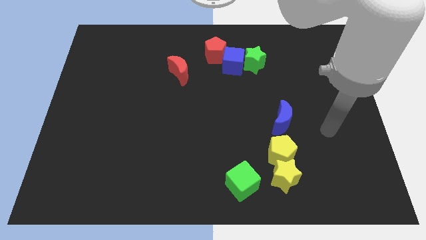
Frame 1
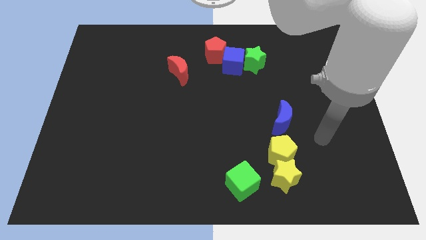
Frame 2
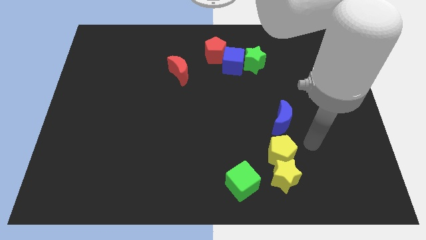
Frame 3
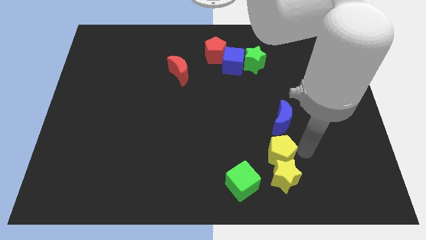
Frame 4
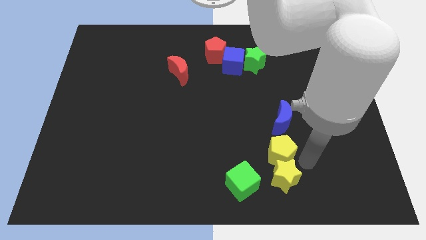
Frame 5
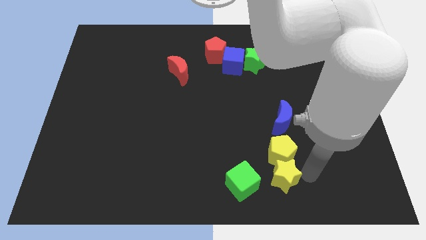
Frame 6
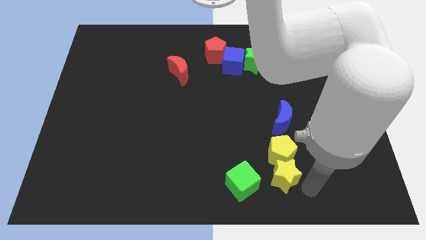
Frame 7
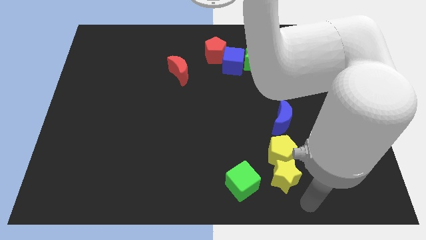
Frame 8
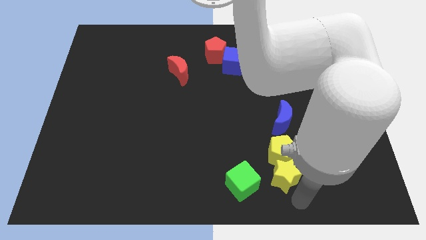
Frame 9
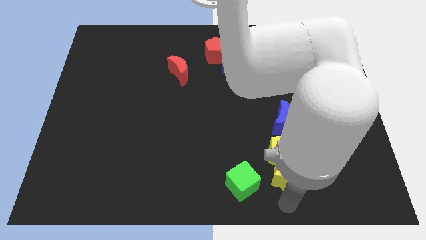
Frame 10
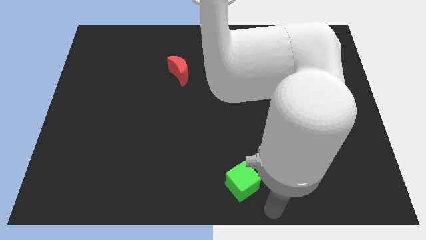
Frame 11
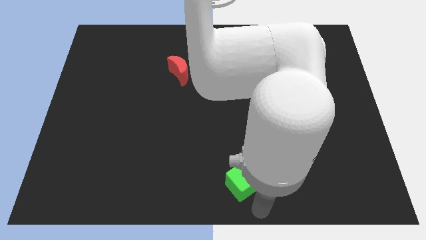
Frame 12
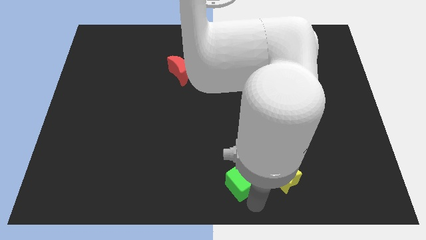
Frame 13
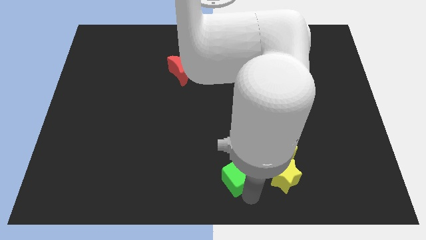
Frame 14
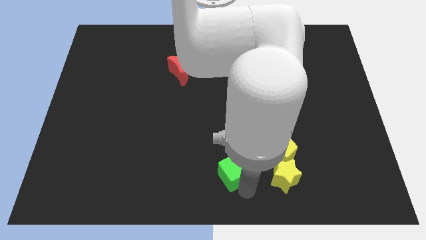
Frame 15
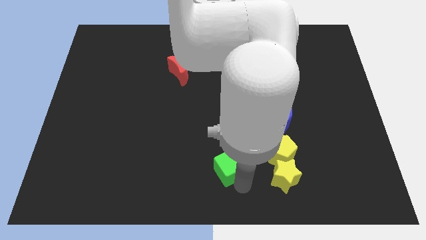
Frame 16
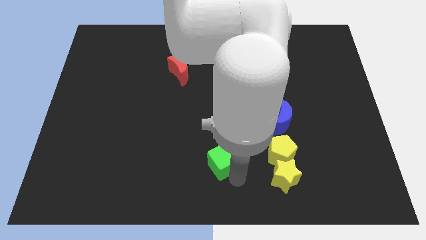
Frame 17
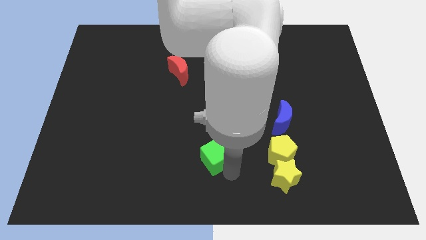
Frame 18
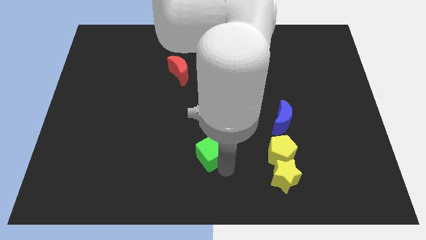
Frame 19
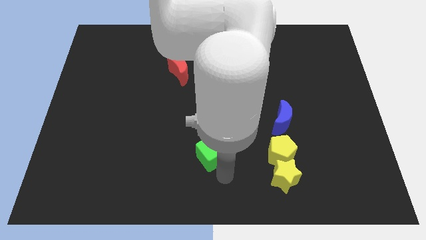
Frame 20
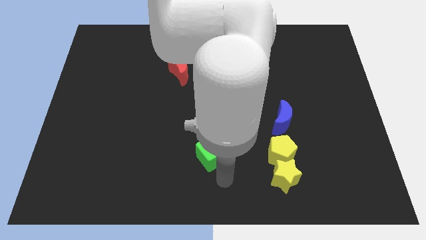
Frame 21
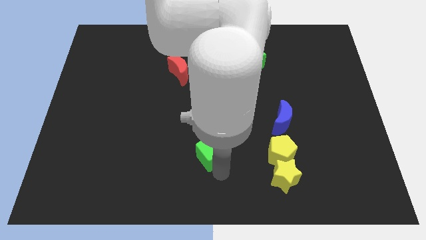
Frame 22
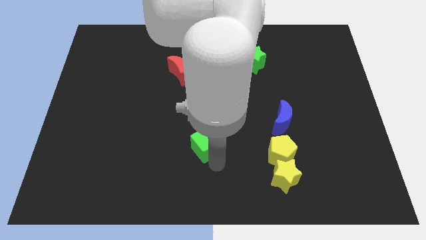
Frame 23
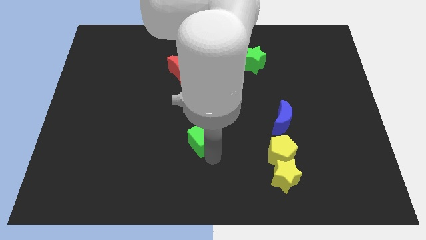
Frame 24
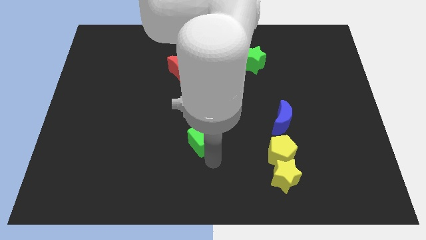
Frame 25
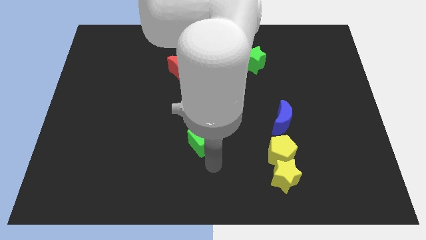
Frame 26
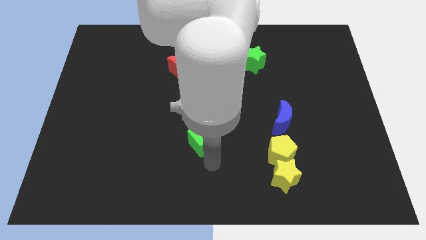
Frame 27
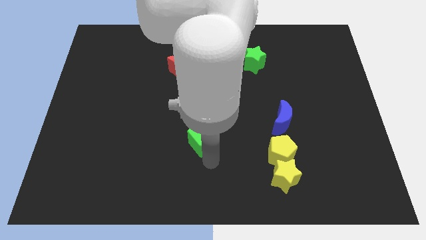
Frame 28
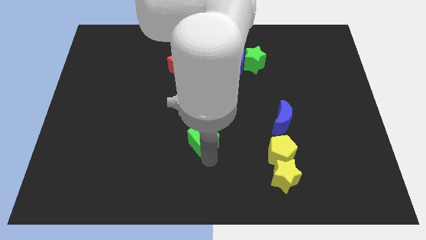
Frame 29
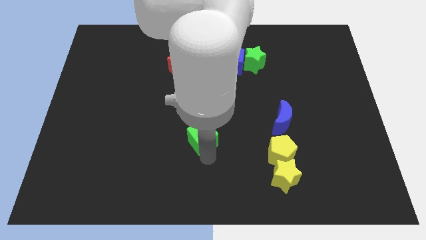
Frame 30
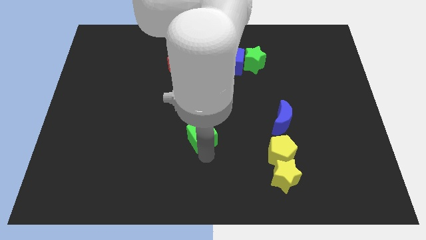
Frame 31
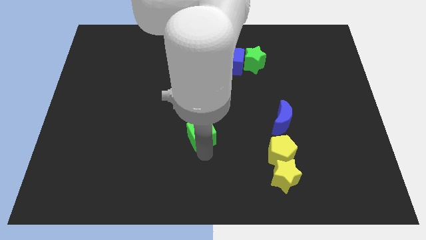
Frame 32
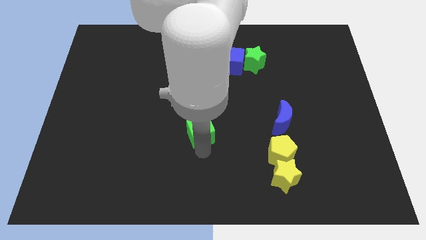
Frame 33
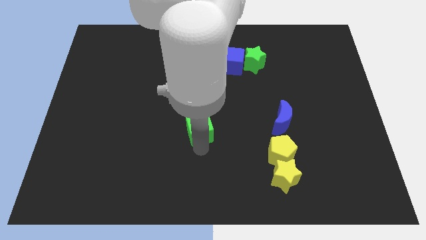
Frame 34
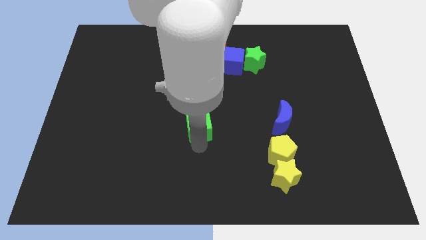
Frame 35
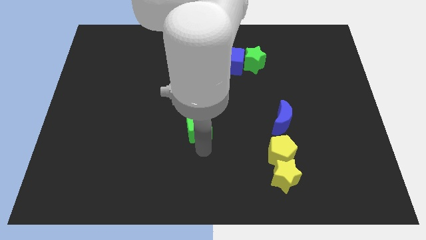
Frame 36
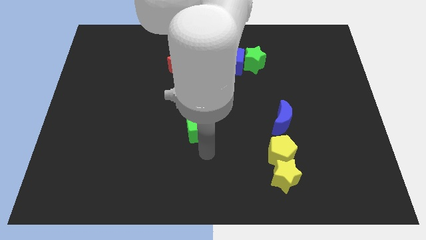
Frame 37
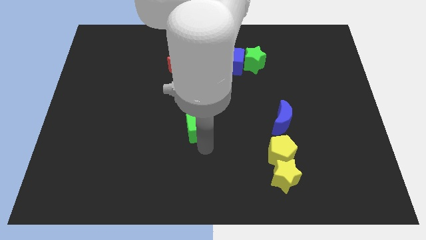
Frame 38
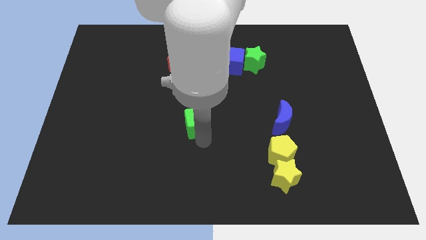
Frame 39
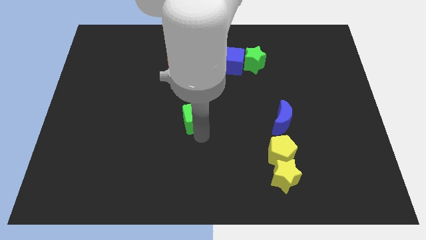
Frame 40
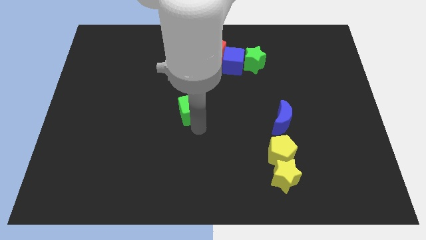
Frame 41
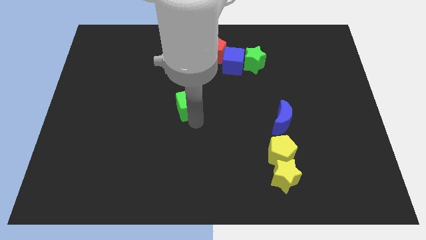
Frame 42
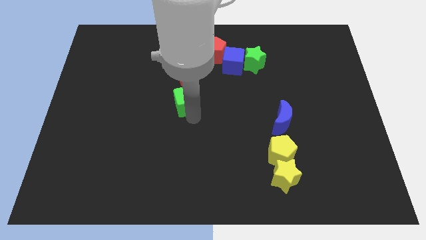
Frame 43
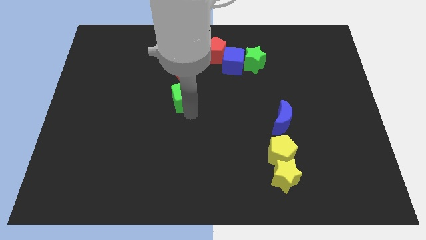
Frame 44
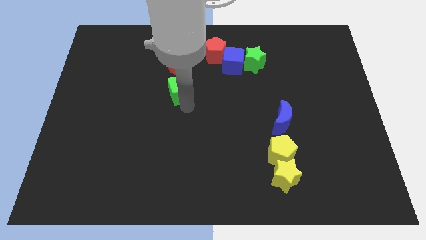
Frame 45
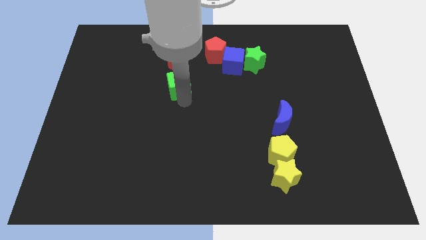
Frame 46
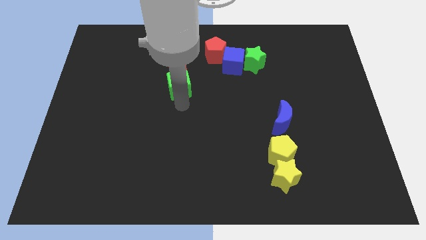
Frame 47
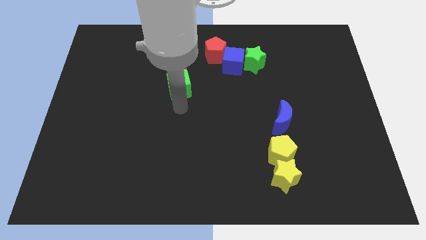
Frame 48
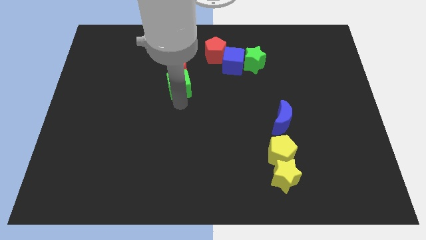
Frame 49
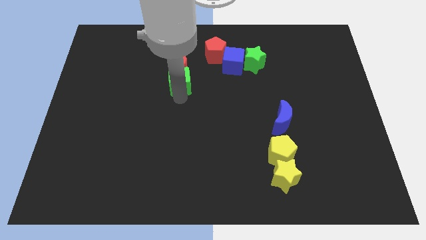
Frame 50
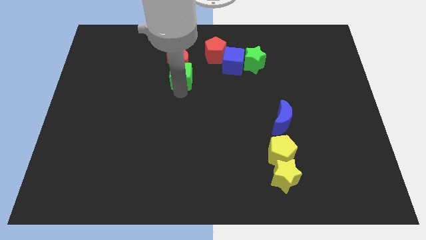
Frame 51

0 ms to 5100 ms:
put the green cube to the red moon

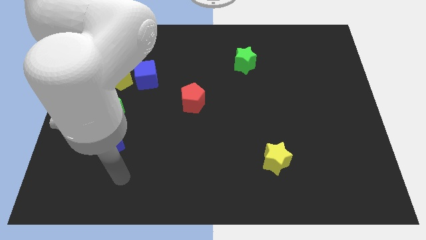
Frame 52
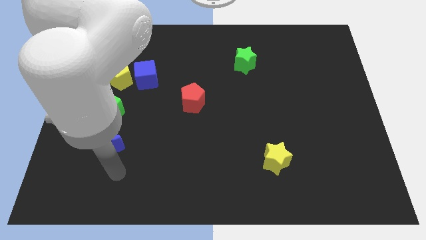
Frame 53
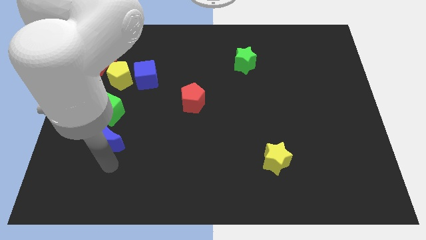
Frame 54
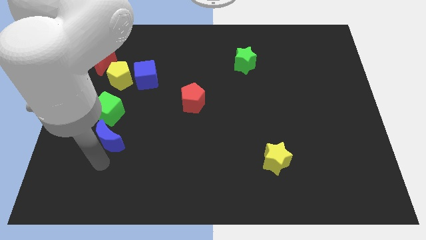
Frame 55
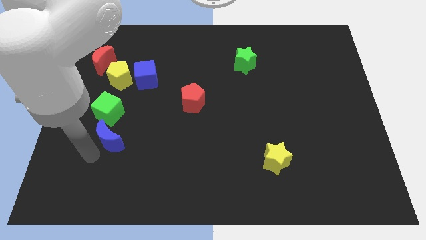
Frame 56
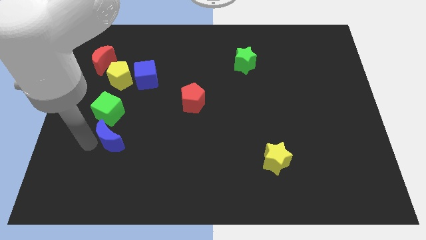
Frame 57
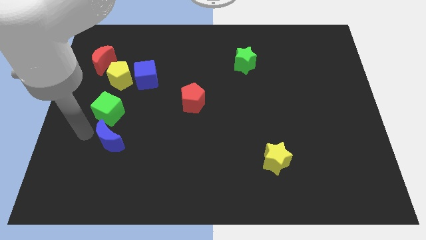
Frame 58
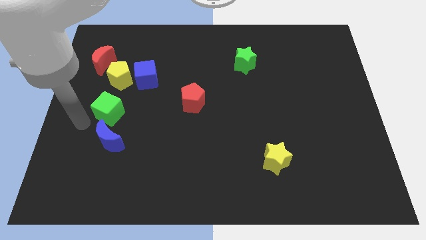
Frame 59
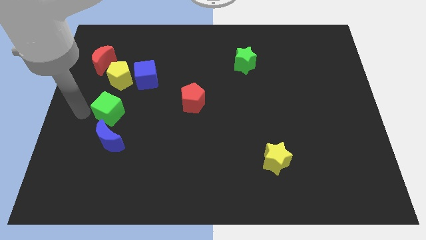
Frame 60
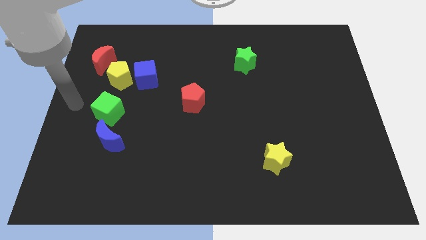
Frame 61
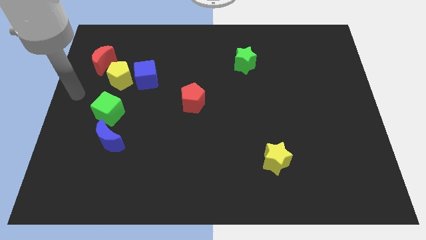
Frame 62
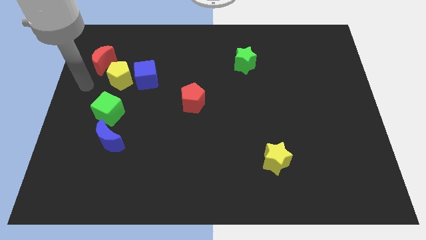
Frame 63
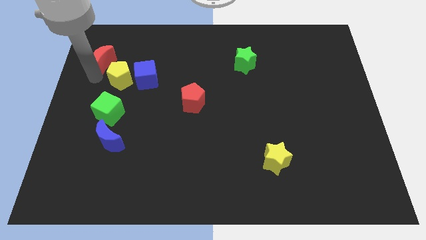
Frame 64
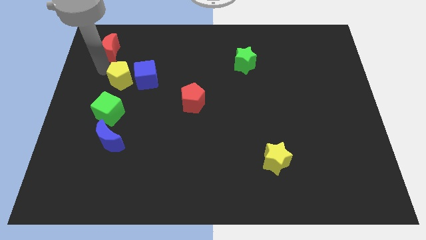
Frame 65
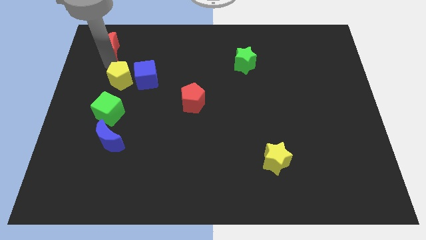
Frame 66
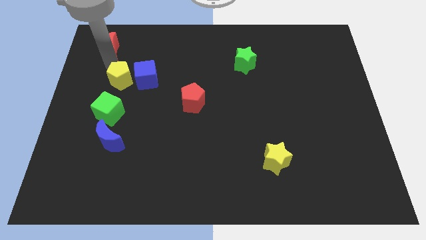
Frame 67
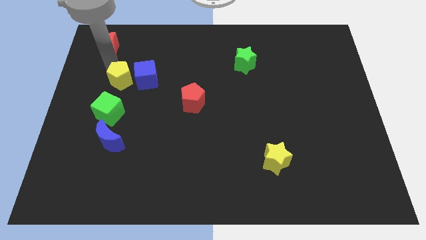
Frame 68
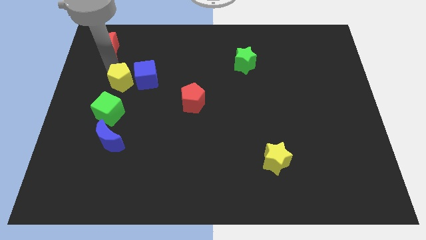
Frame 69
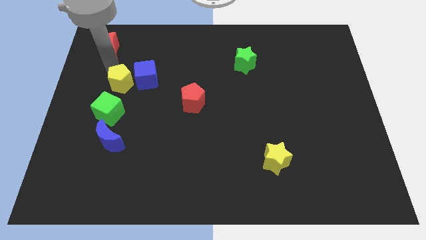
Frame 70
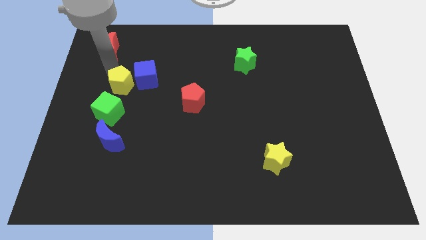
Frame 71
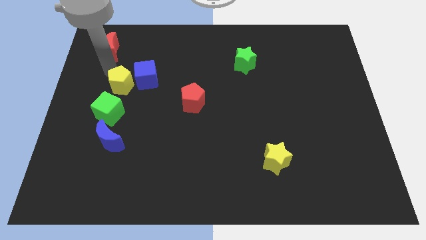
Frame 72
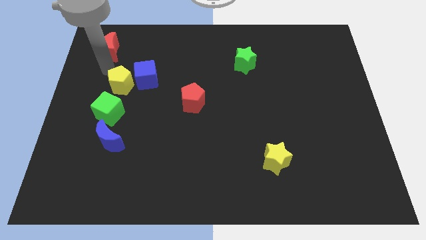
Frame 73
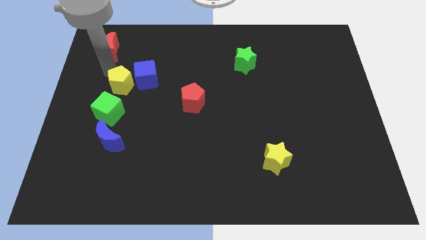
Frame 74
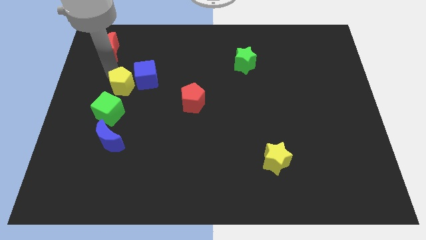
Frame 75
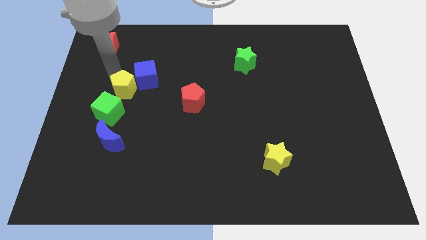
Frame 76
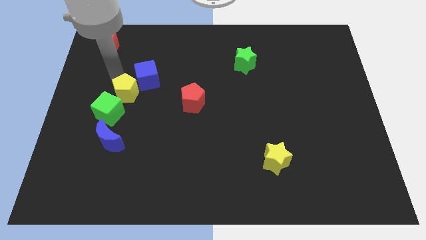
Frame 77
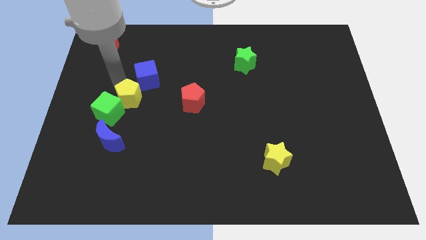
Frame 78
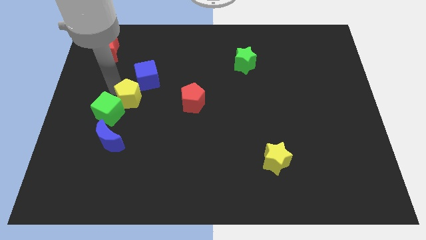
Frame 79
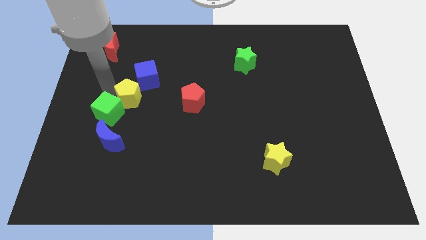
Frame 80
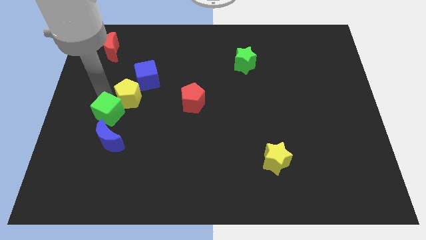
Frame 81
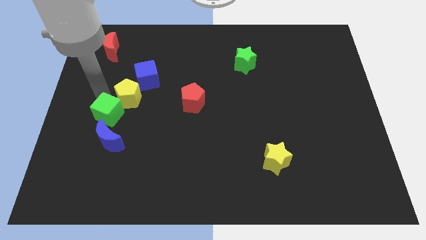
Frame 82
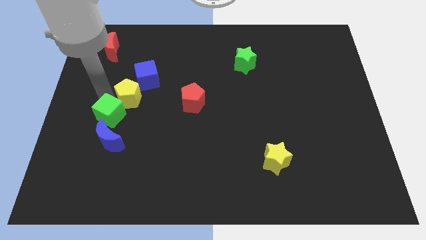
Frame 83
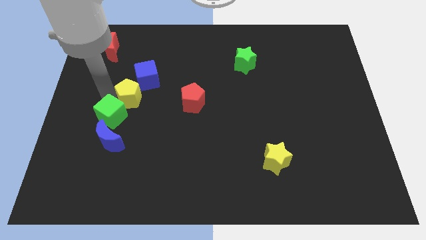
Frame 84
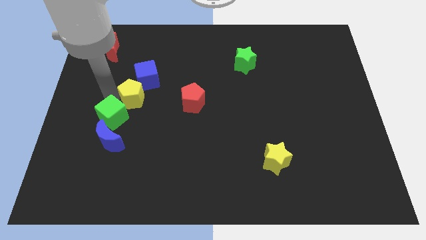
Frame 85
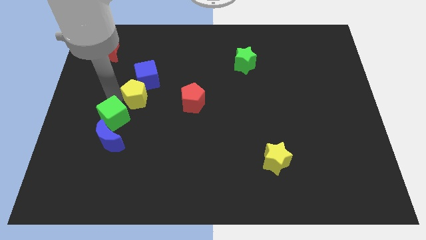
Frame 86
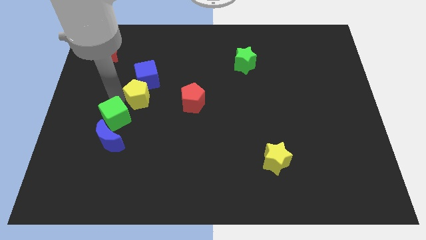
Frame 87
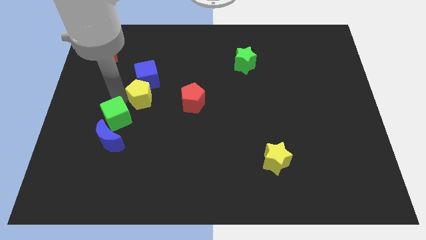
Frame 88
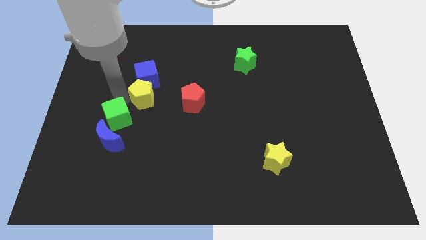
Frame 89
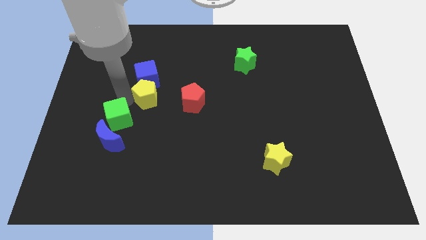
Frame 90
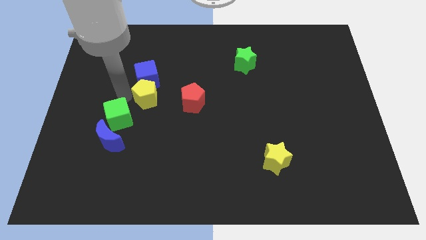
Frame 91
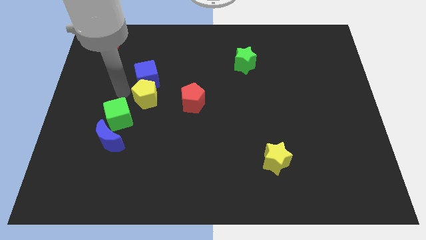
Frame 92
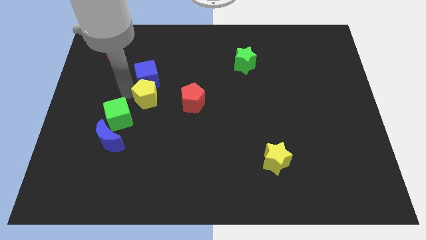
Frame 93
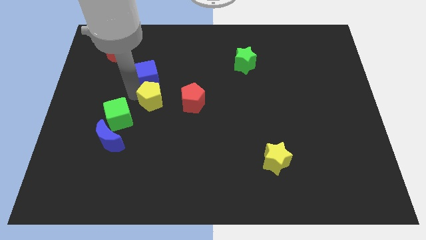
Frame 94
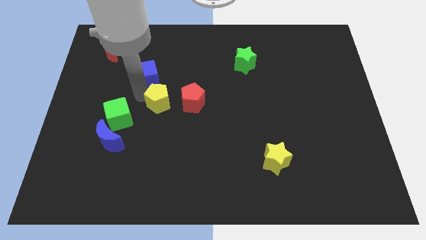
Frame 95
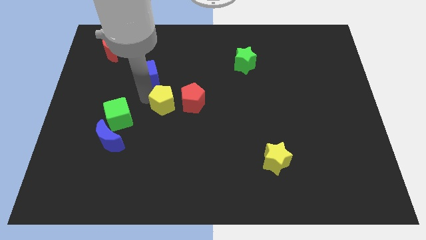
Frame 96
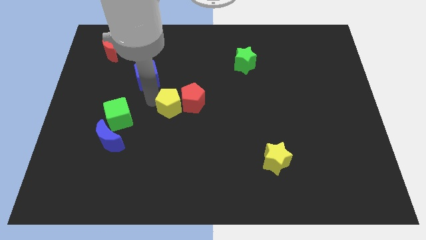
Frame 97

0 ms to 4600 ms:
slide the yellow pentagon next to the red pentagon
